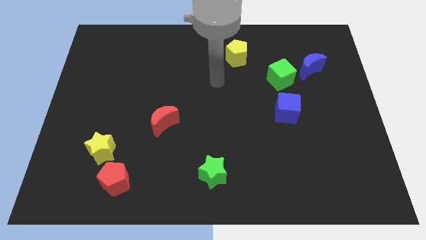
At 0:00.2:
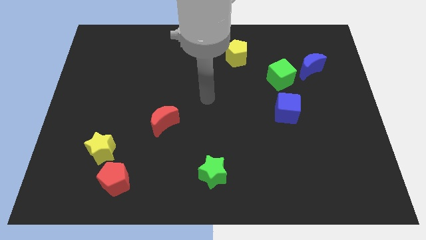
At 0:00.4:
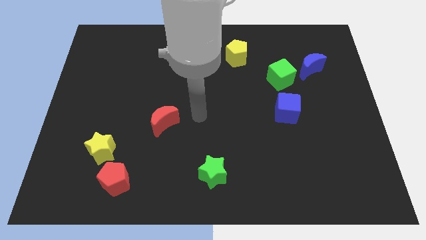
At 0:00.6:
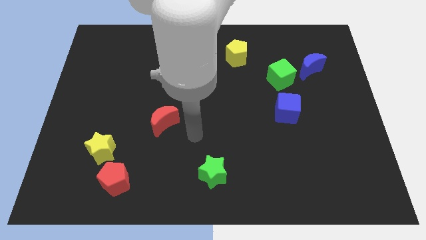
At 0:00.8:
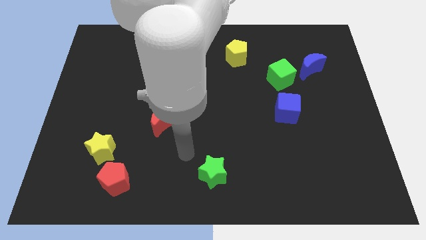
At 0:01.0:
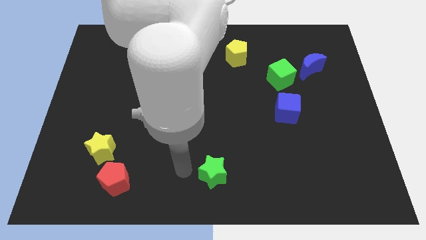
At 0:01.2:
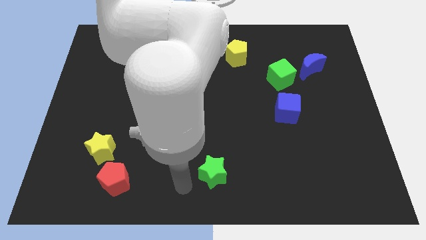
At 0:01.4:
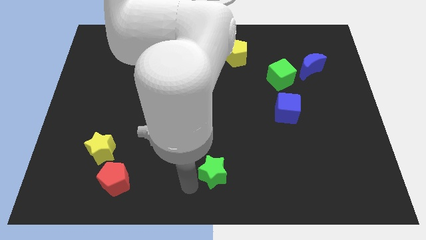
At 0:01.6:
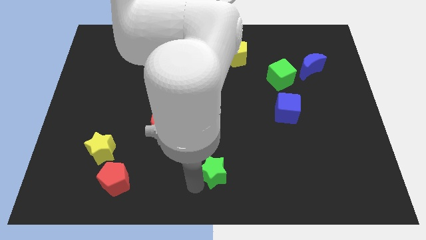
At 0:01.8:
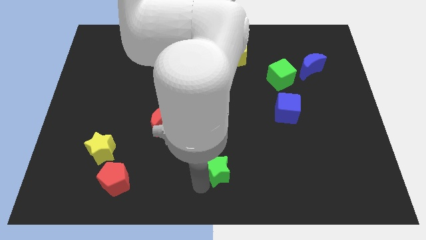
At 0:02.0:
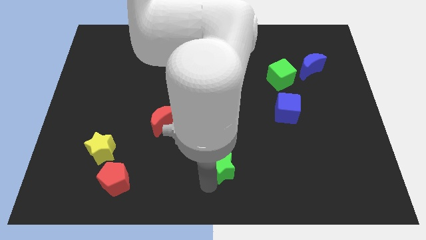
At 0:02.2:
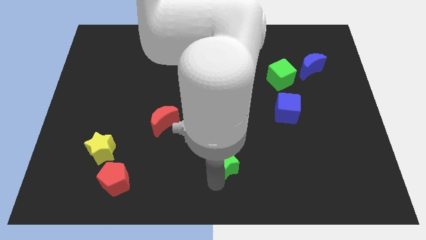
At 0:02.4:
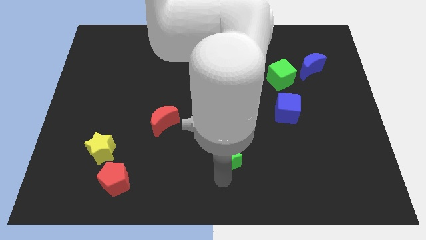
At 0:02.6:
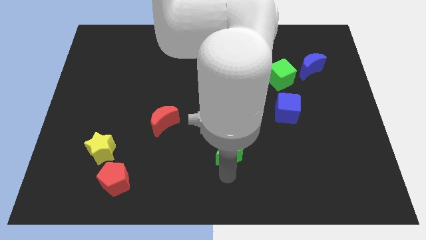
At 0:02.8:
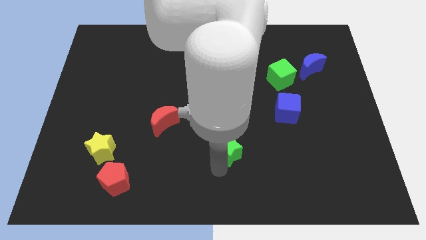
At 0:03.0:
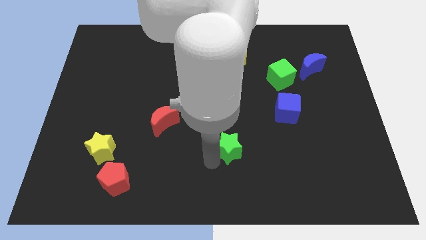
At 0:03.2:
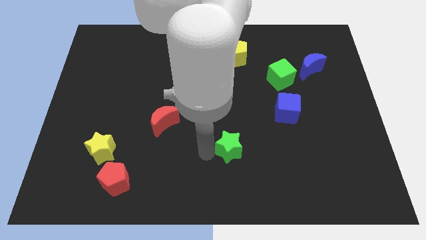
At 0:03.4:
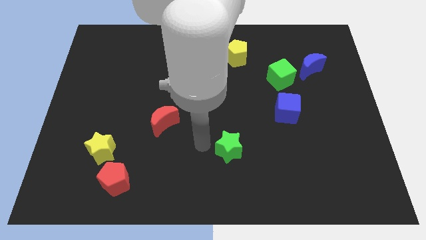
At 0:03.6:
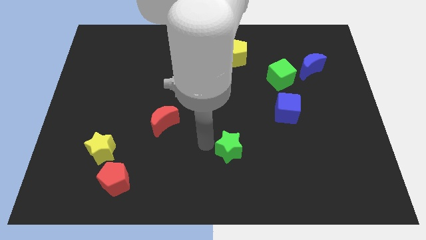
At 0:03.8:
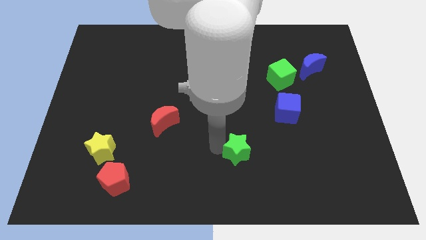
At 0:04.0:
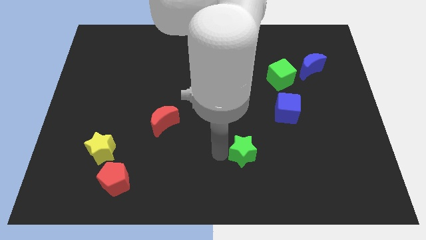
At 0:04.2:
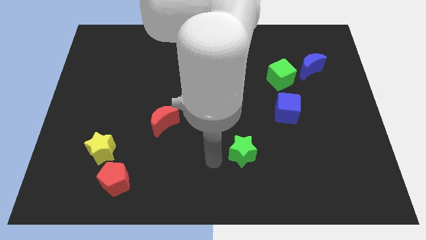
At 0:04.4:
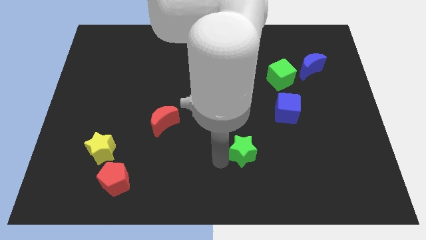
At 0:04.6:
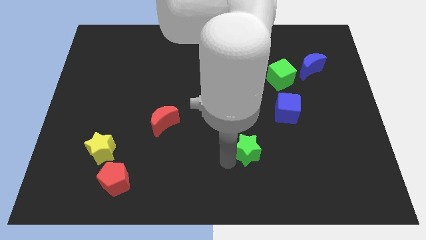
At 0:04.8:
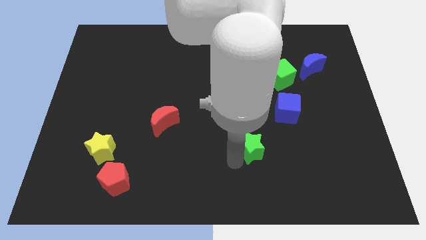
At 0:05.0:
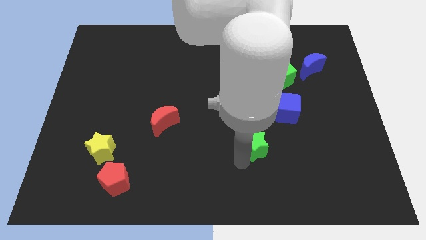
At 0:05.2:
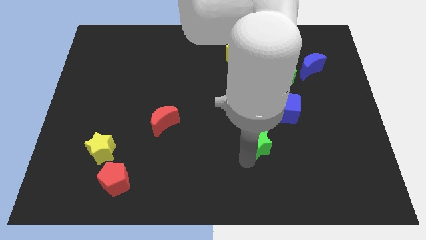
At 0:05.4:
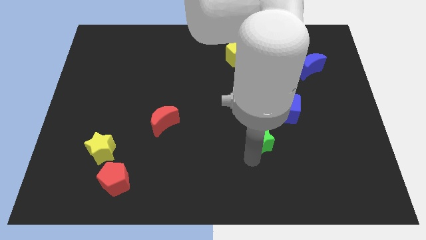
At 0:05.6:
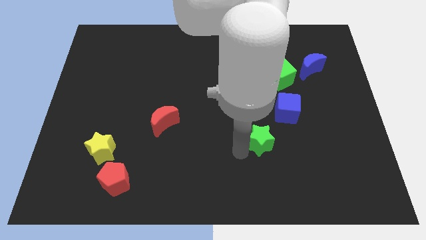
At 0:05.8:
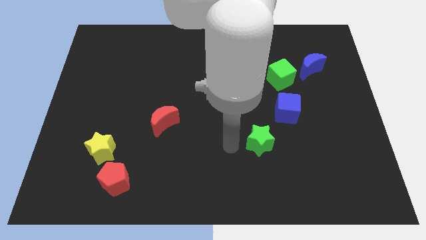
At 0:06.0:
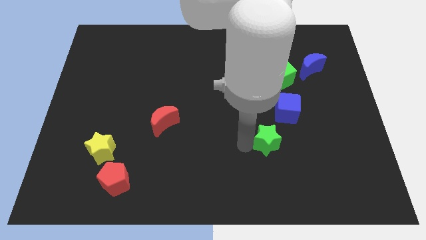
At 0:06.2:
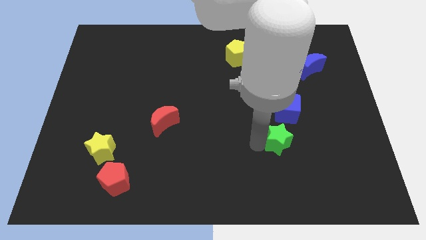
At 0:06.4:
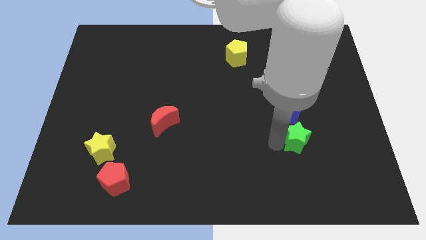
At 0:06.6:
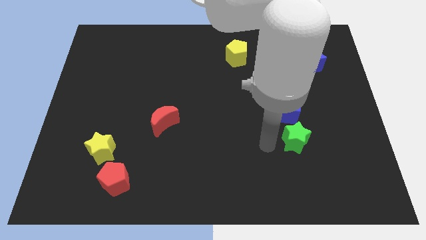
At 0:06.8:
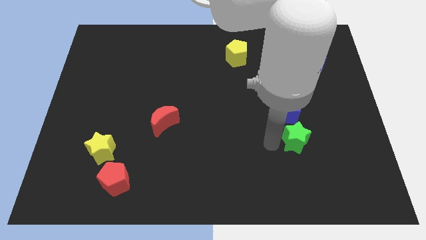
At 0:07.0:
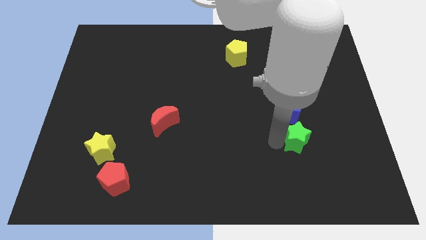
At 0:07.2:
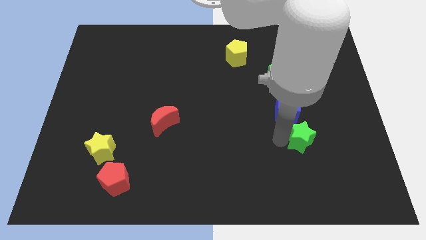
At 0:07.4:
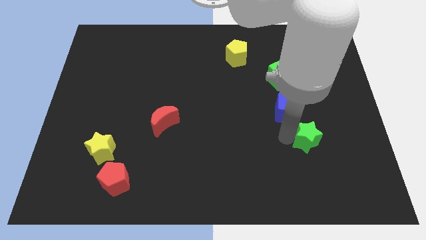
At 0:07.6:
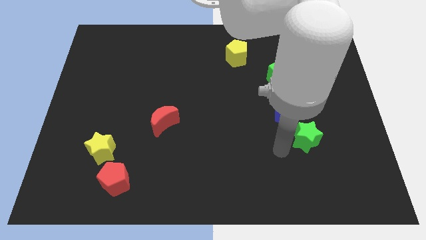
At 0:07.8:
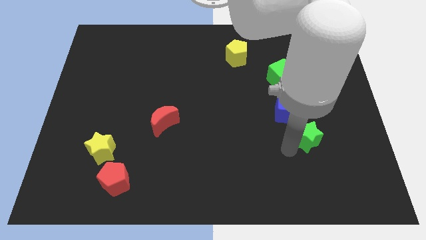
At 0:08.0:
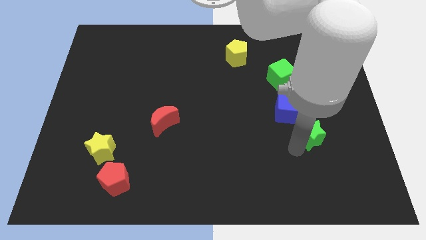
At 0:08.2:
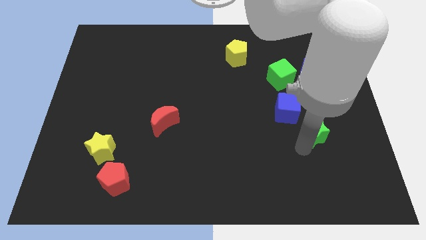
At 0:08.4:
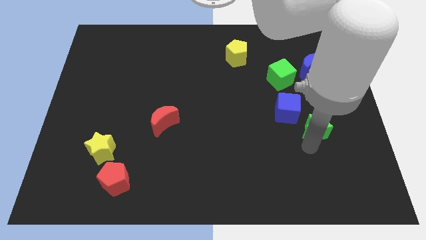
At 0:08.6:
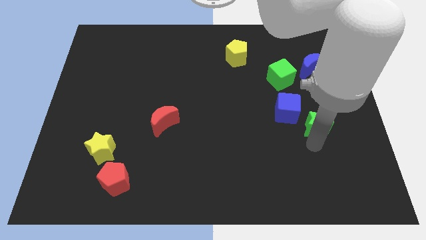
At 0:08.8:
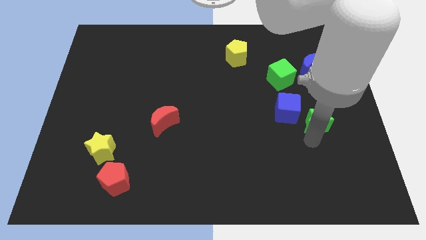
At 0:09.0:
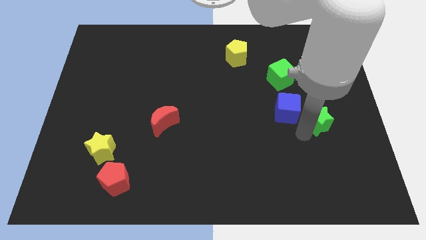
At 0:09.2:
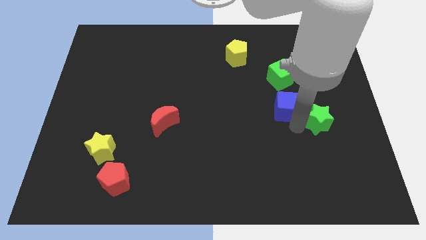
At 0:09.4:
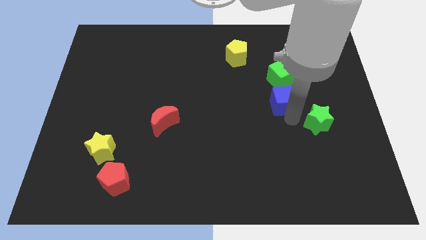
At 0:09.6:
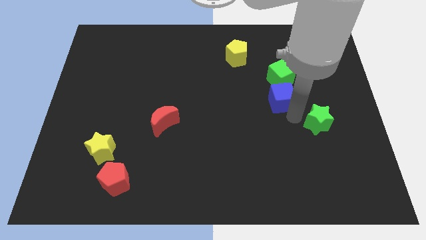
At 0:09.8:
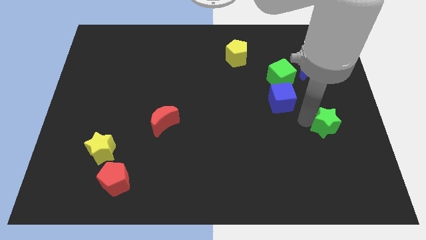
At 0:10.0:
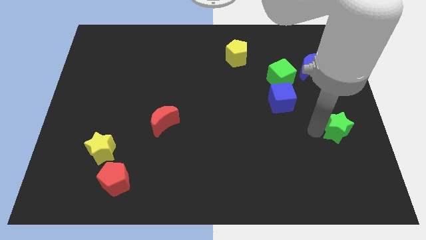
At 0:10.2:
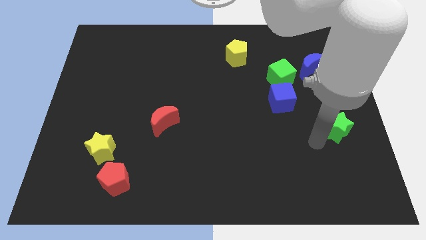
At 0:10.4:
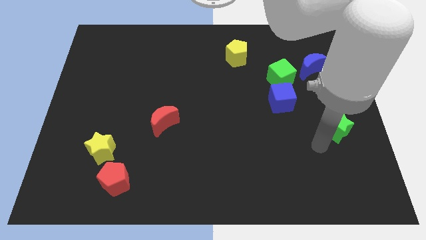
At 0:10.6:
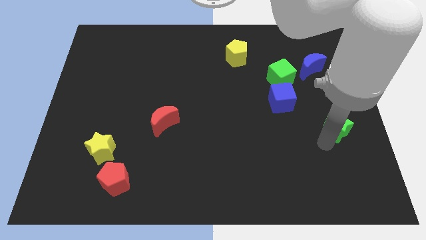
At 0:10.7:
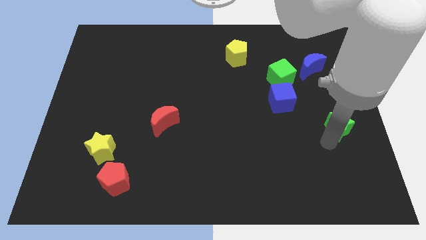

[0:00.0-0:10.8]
push the green star to the right side
